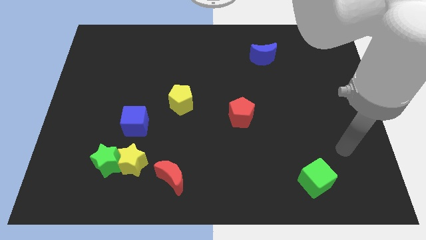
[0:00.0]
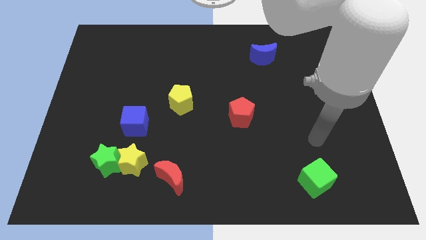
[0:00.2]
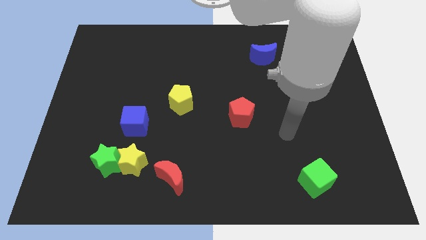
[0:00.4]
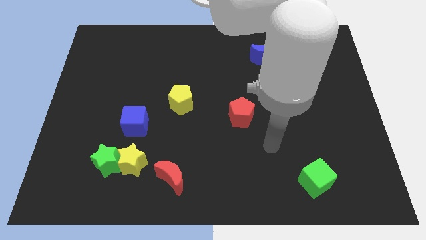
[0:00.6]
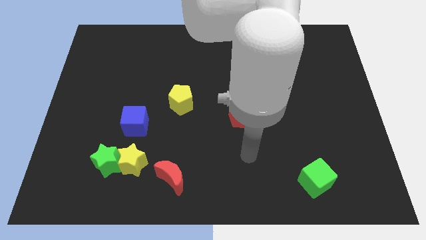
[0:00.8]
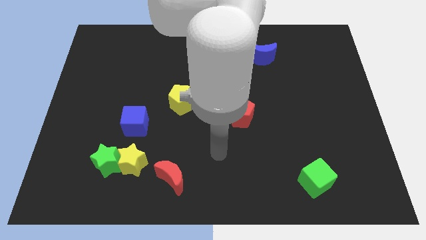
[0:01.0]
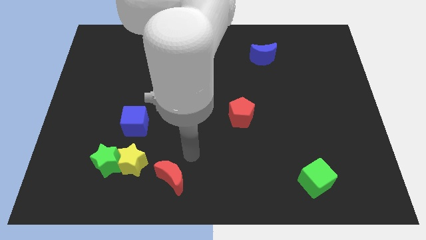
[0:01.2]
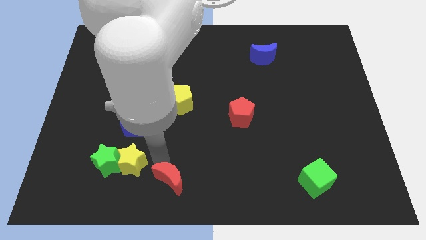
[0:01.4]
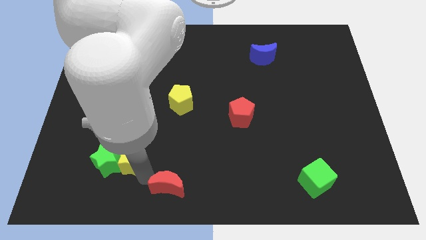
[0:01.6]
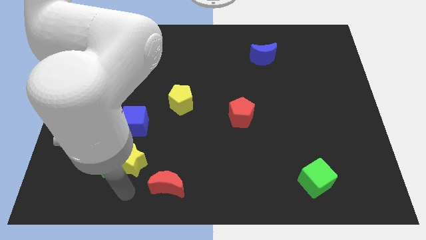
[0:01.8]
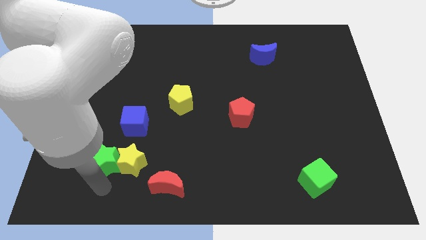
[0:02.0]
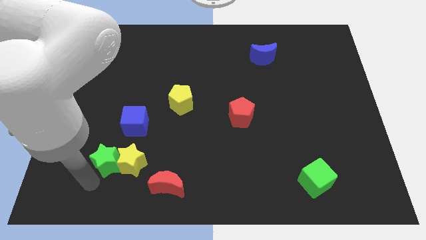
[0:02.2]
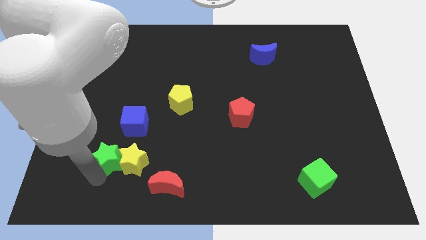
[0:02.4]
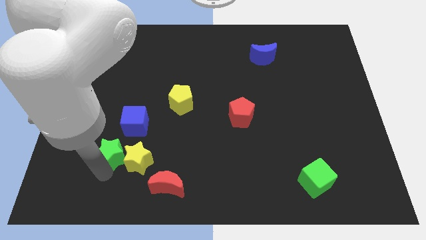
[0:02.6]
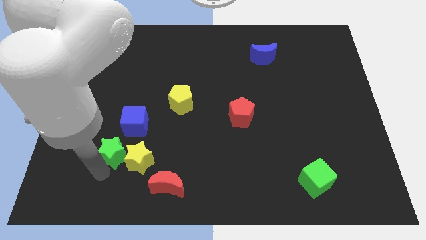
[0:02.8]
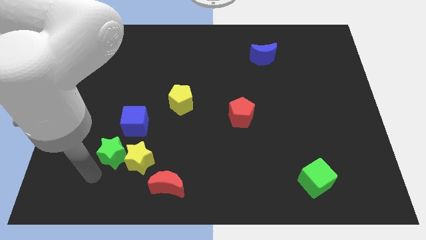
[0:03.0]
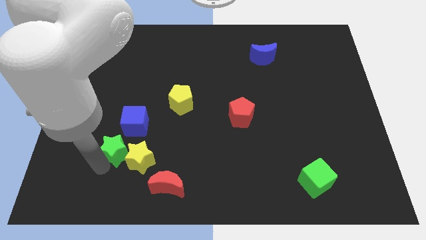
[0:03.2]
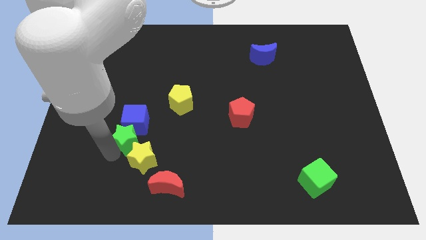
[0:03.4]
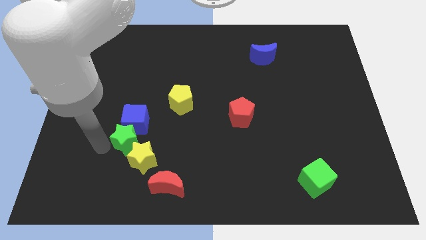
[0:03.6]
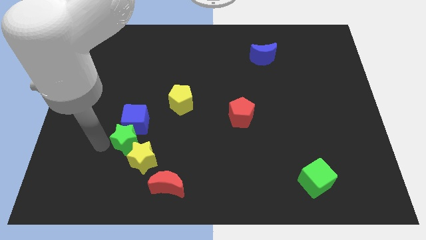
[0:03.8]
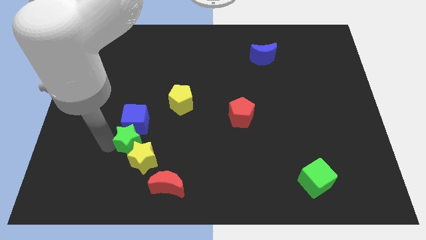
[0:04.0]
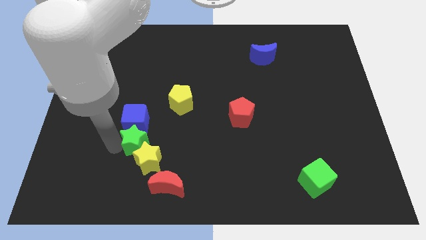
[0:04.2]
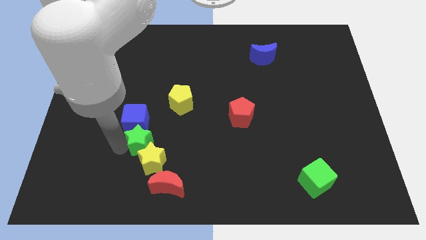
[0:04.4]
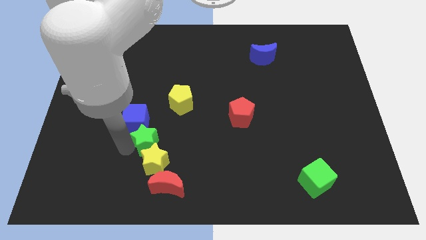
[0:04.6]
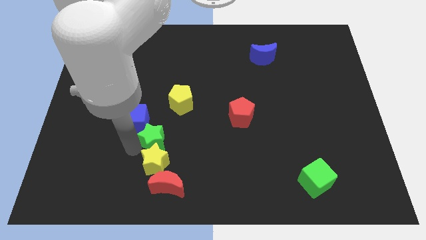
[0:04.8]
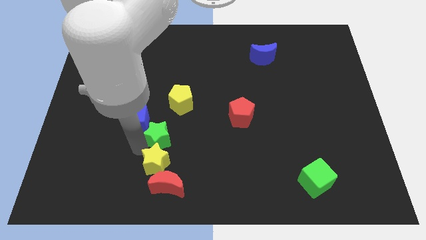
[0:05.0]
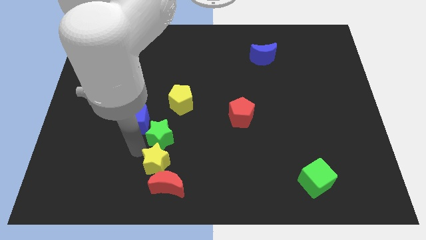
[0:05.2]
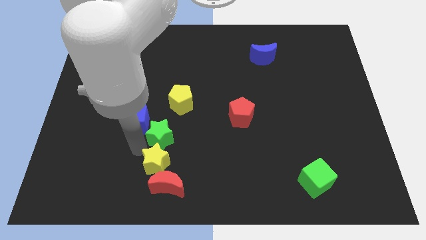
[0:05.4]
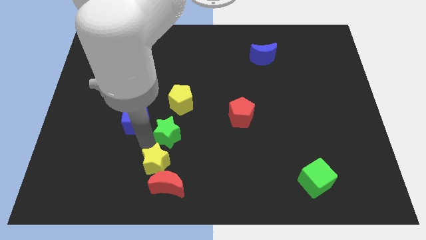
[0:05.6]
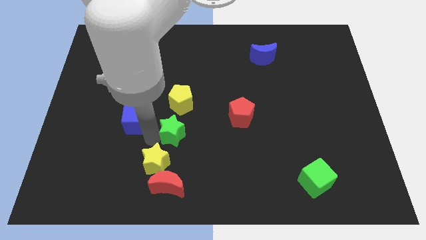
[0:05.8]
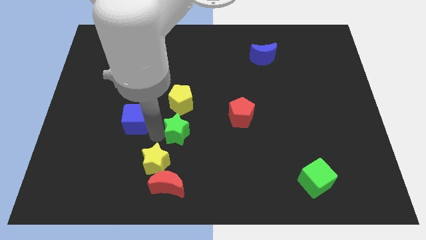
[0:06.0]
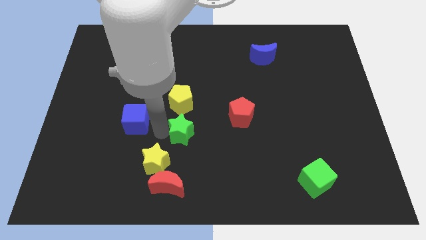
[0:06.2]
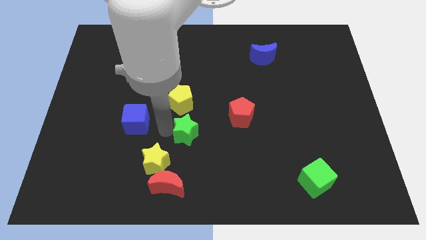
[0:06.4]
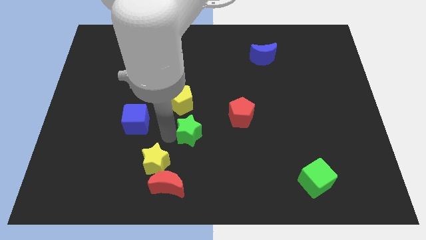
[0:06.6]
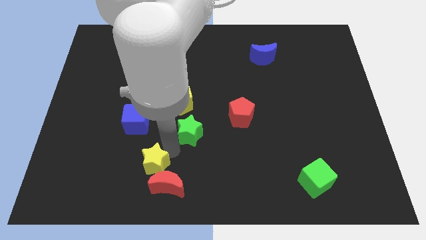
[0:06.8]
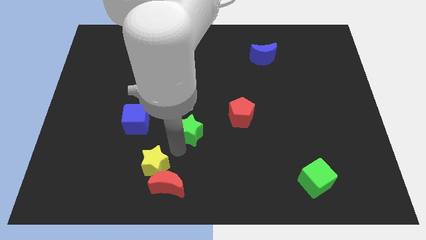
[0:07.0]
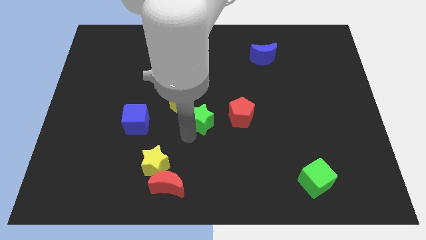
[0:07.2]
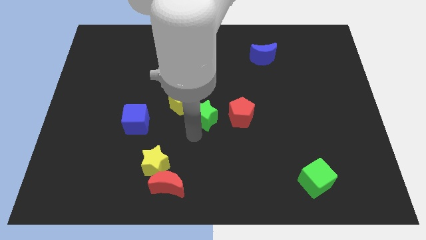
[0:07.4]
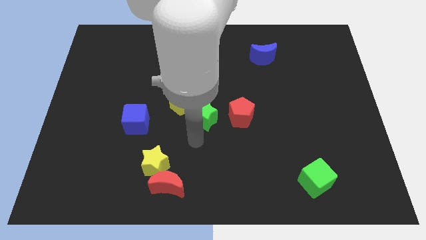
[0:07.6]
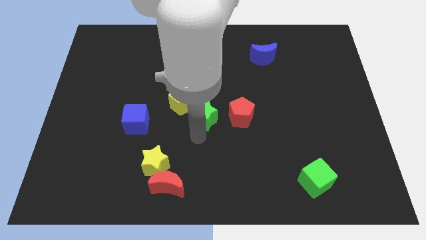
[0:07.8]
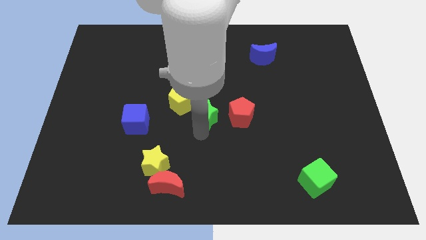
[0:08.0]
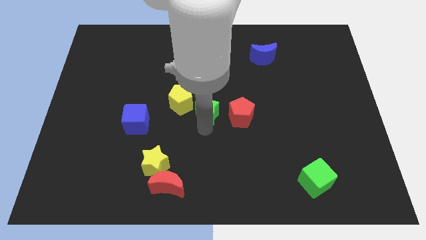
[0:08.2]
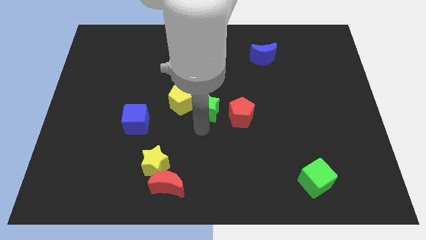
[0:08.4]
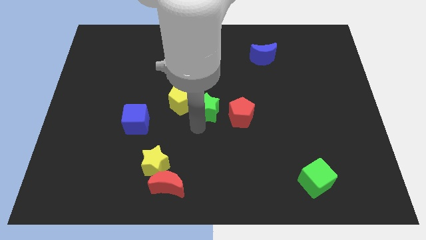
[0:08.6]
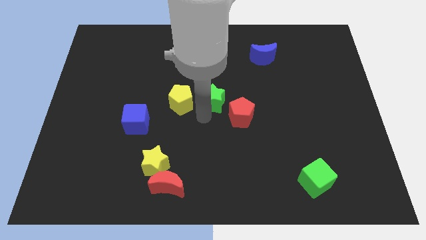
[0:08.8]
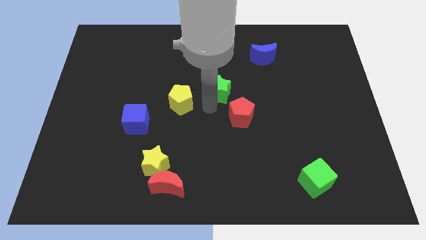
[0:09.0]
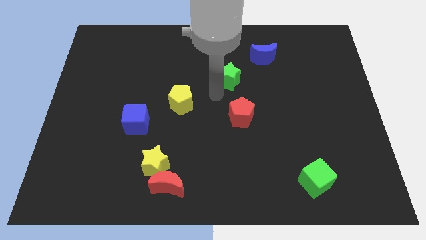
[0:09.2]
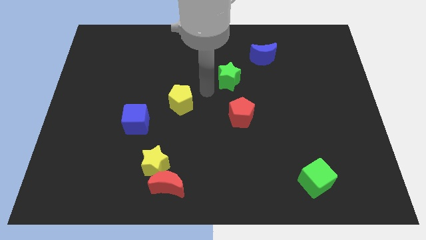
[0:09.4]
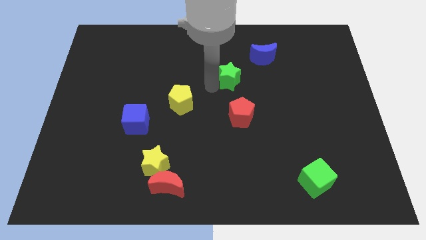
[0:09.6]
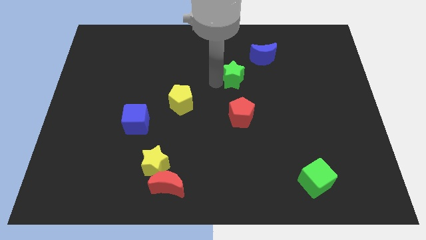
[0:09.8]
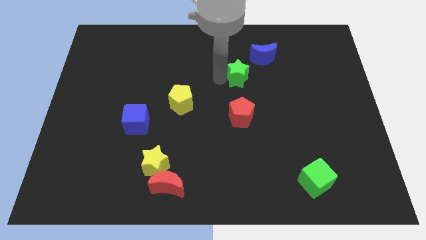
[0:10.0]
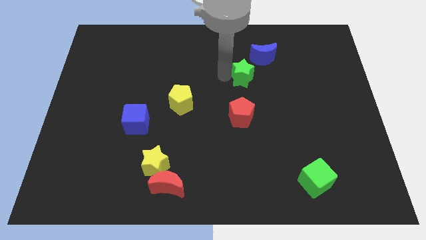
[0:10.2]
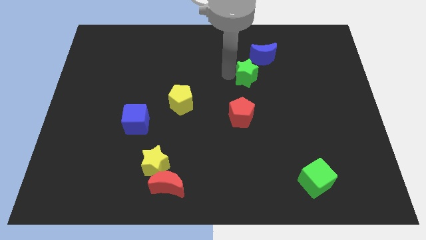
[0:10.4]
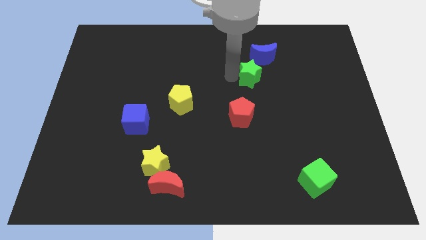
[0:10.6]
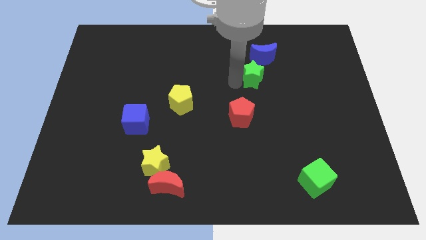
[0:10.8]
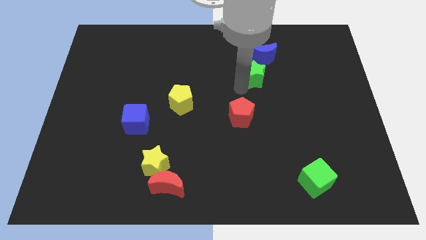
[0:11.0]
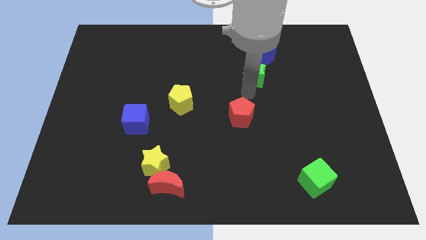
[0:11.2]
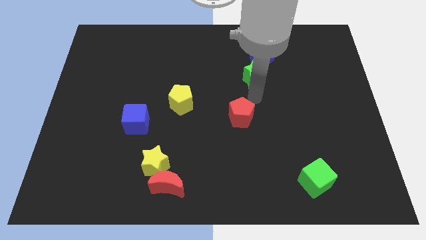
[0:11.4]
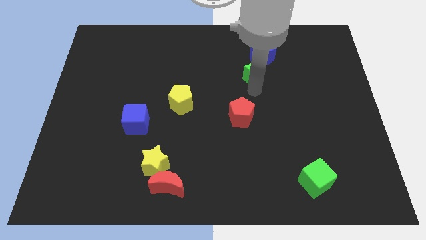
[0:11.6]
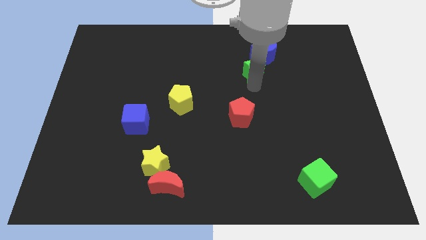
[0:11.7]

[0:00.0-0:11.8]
slide the green star towards the blue moon

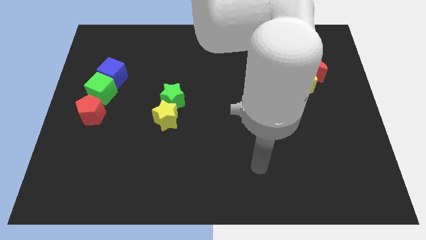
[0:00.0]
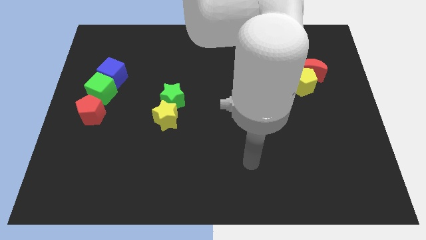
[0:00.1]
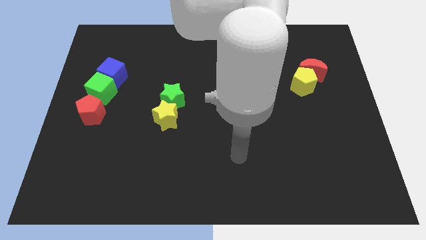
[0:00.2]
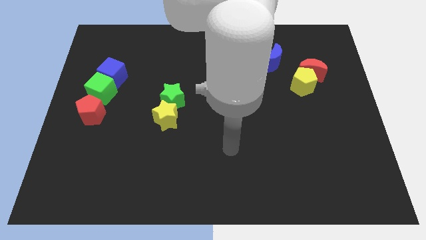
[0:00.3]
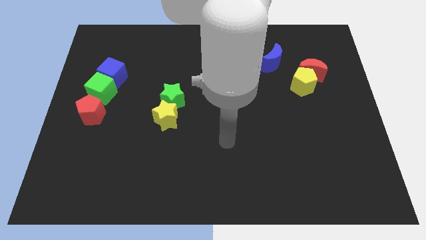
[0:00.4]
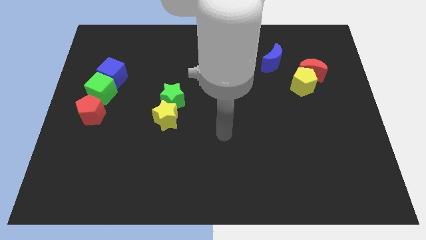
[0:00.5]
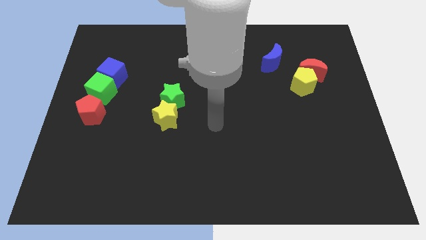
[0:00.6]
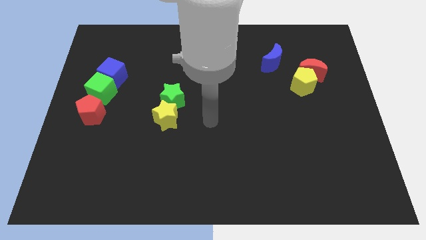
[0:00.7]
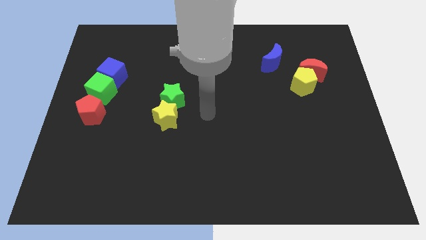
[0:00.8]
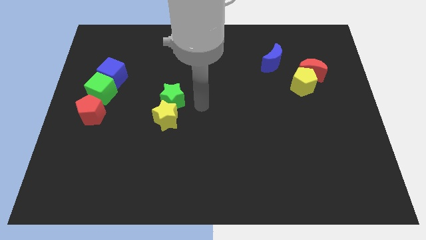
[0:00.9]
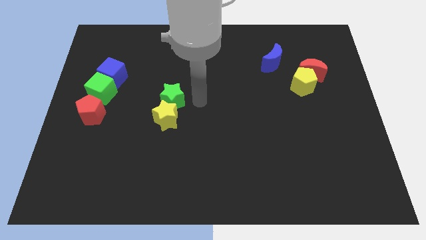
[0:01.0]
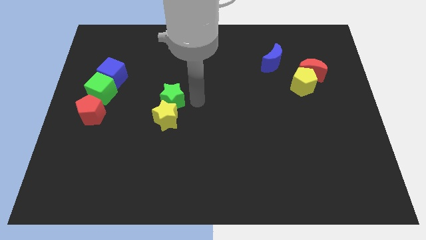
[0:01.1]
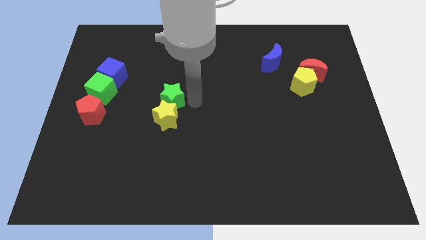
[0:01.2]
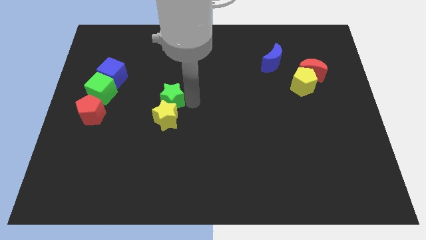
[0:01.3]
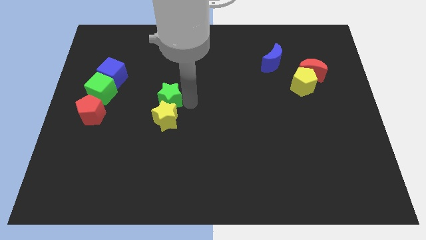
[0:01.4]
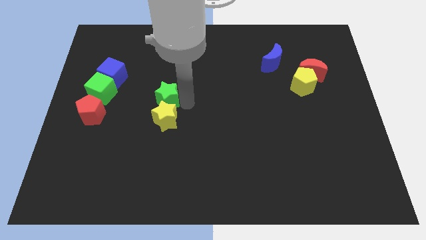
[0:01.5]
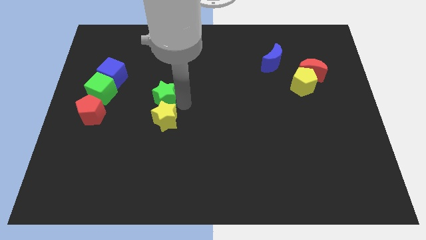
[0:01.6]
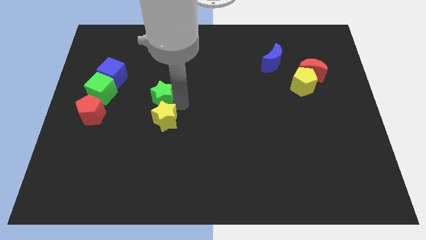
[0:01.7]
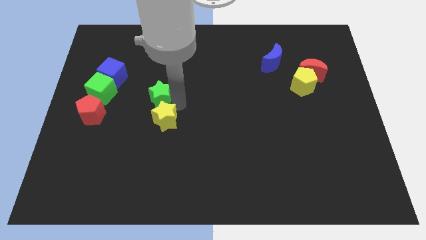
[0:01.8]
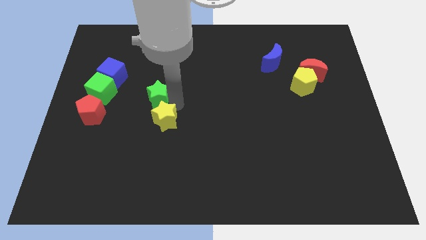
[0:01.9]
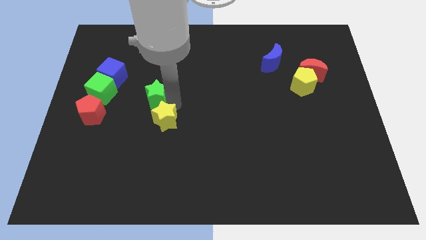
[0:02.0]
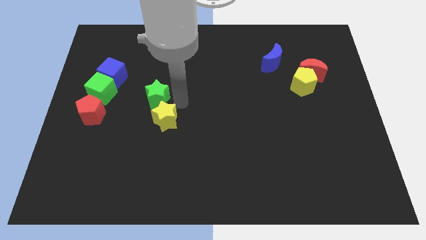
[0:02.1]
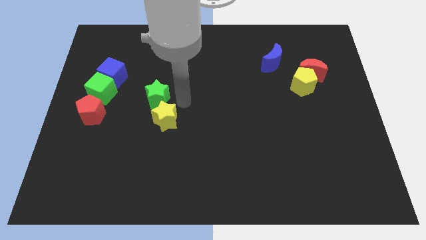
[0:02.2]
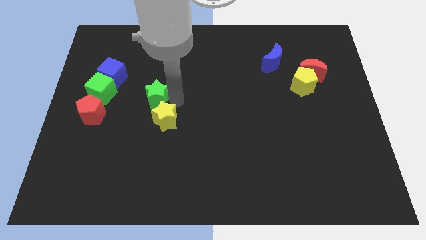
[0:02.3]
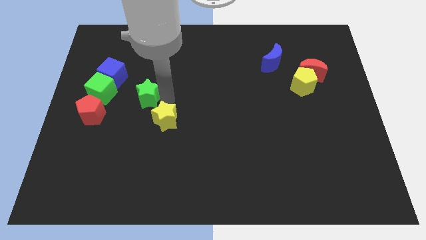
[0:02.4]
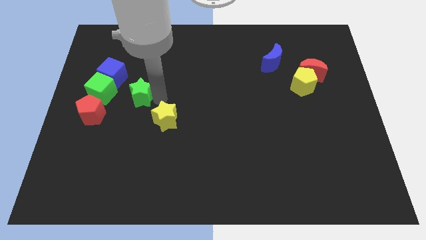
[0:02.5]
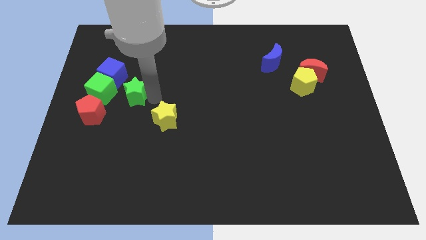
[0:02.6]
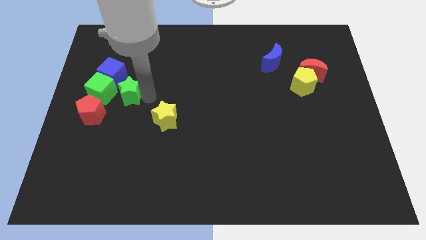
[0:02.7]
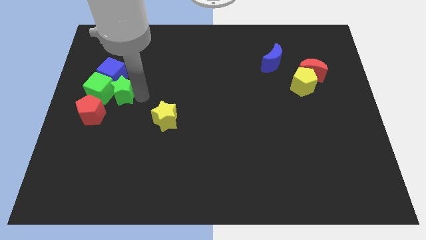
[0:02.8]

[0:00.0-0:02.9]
move the green star to the green cube
